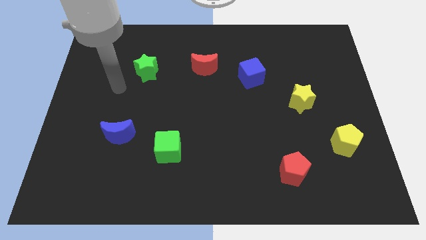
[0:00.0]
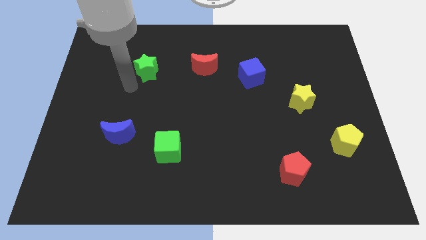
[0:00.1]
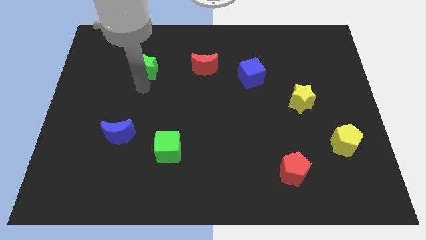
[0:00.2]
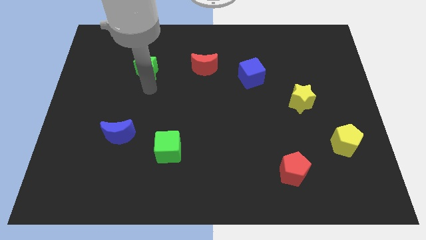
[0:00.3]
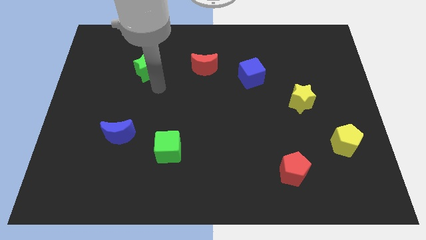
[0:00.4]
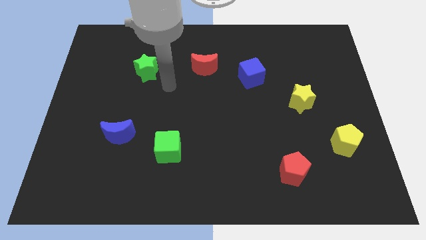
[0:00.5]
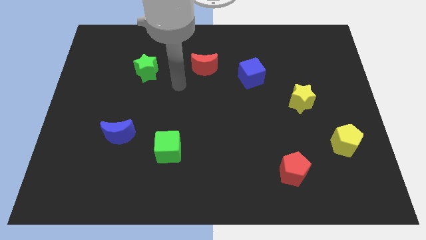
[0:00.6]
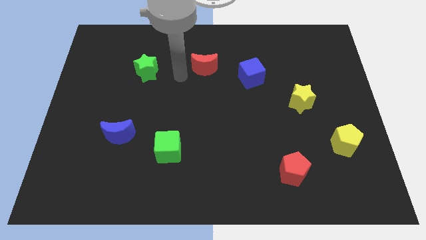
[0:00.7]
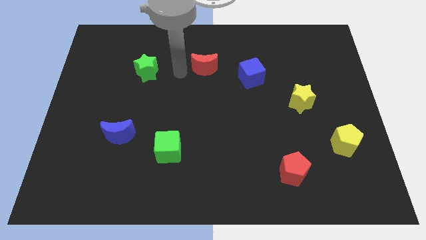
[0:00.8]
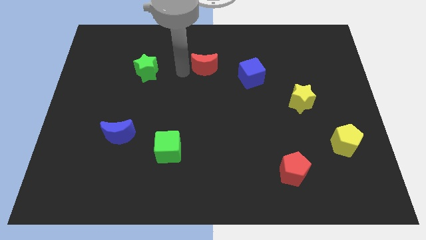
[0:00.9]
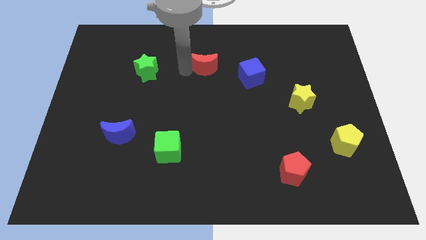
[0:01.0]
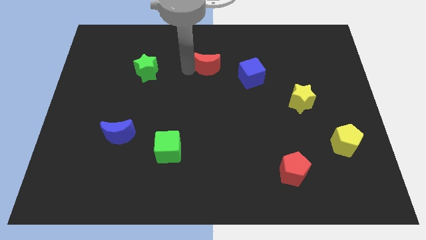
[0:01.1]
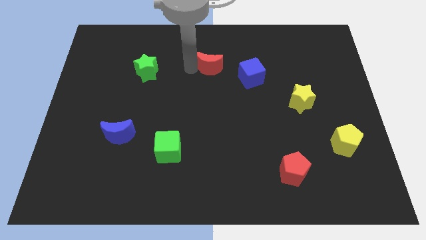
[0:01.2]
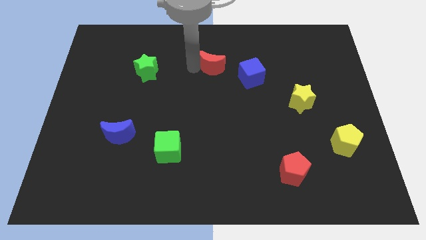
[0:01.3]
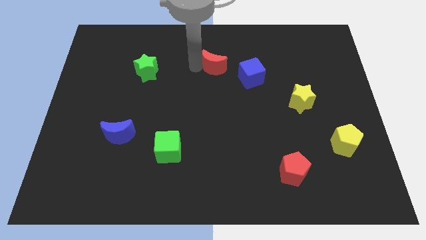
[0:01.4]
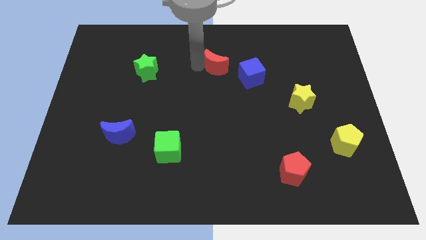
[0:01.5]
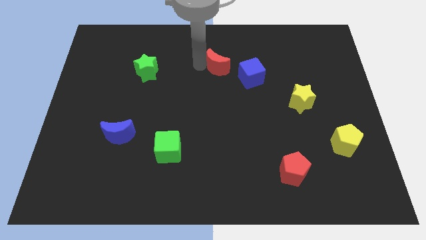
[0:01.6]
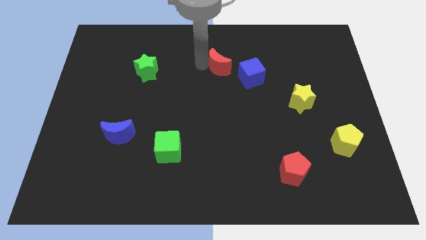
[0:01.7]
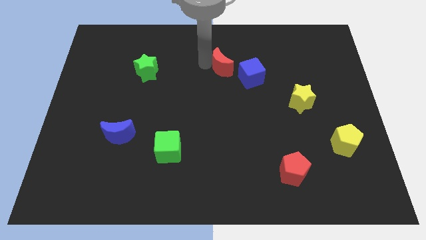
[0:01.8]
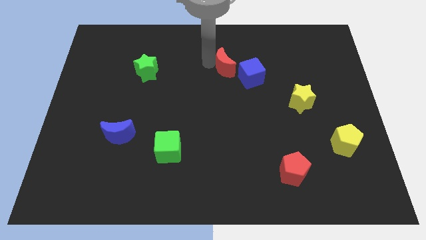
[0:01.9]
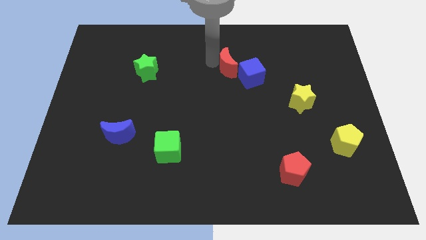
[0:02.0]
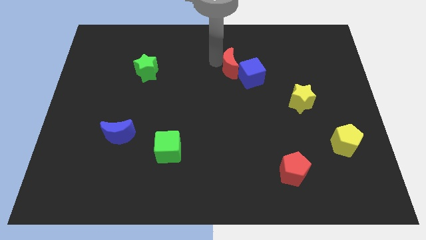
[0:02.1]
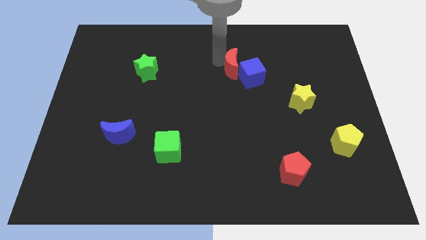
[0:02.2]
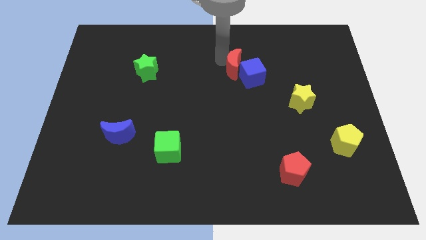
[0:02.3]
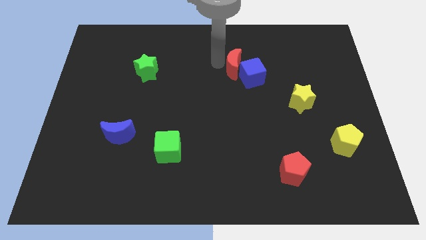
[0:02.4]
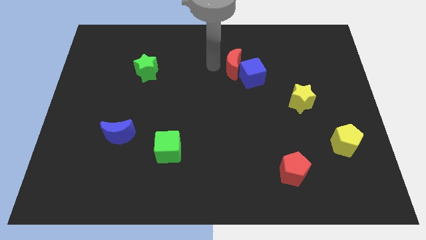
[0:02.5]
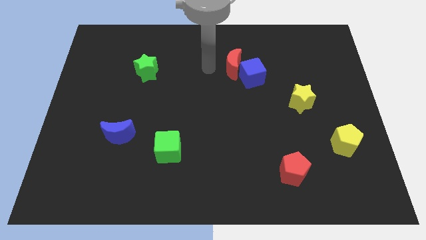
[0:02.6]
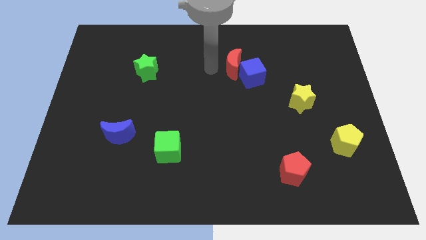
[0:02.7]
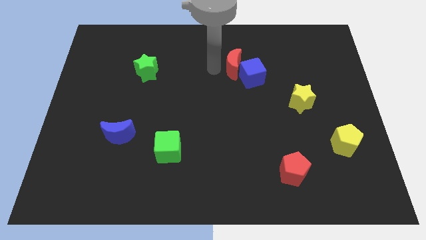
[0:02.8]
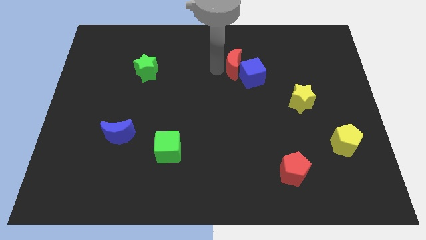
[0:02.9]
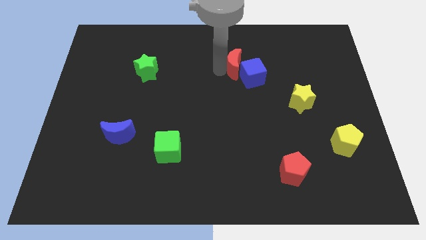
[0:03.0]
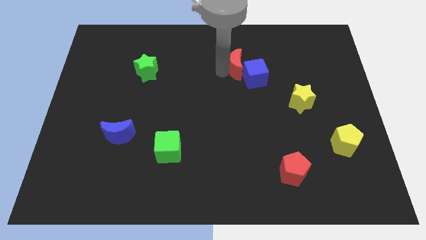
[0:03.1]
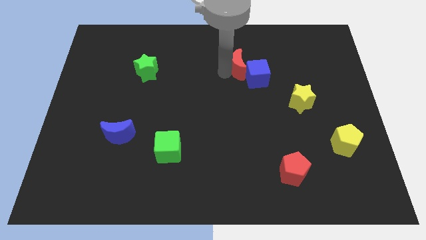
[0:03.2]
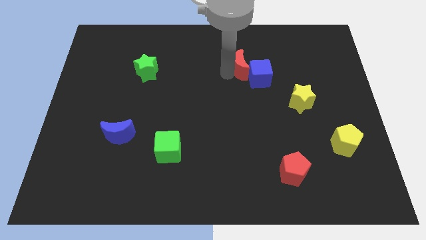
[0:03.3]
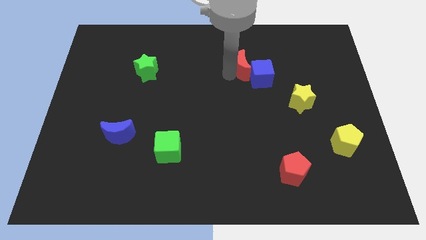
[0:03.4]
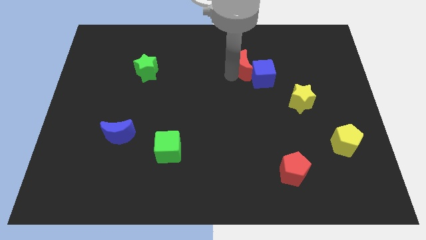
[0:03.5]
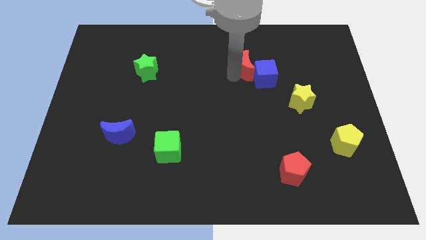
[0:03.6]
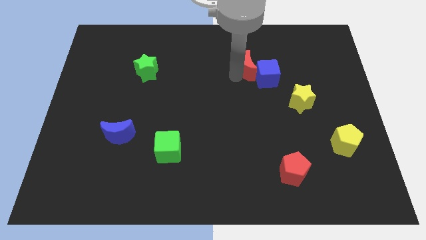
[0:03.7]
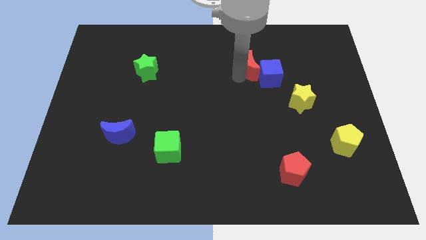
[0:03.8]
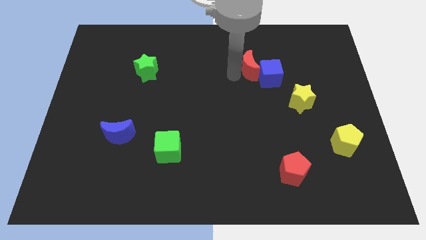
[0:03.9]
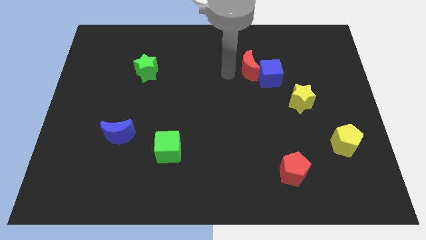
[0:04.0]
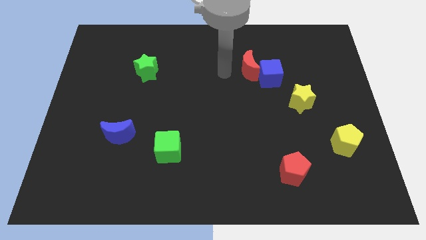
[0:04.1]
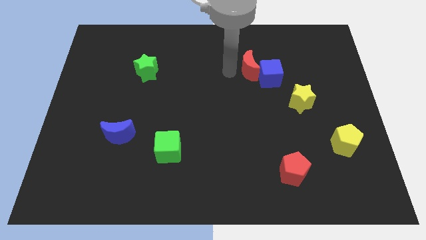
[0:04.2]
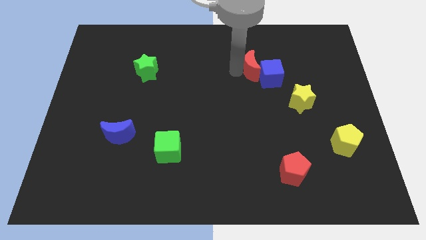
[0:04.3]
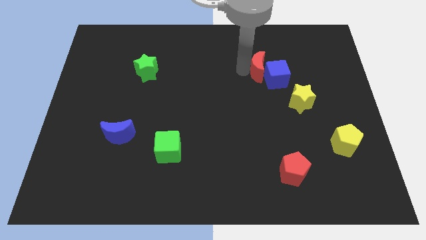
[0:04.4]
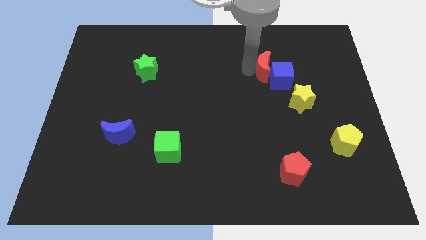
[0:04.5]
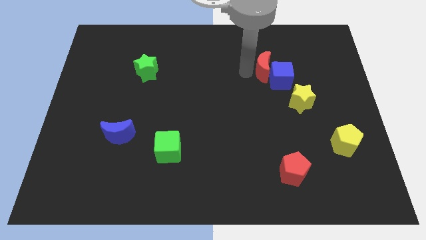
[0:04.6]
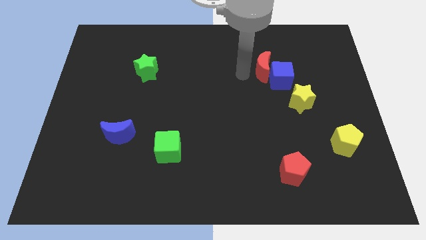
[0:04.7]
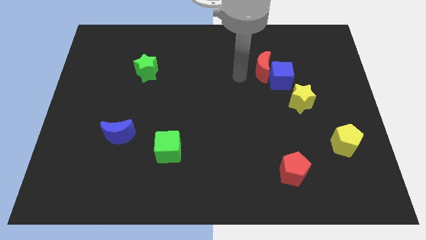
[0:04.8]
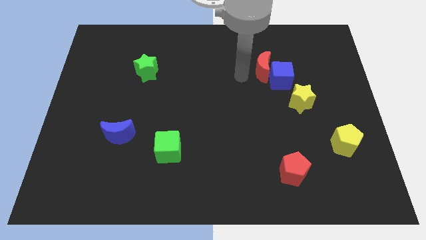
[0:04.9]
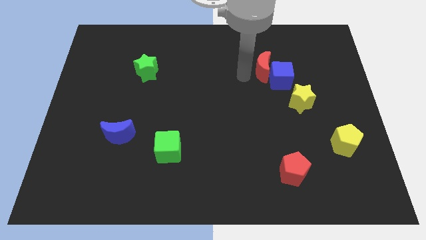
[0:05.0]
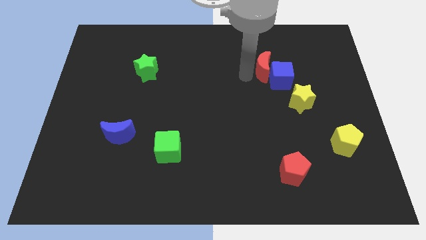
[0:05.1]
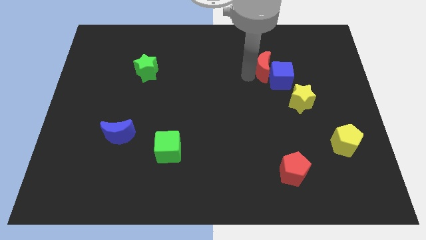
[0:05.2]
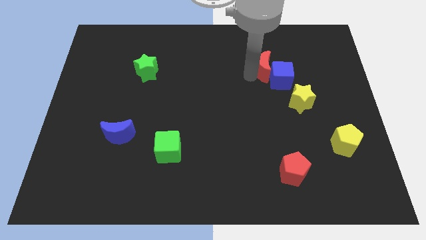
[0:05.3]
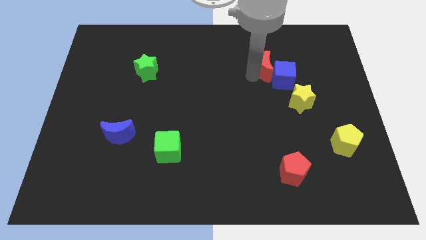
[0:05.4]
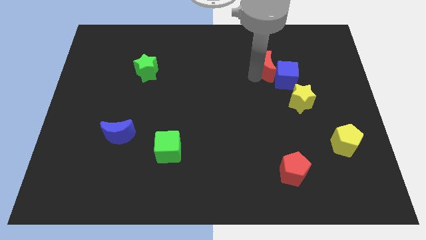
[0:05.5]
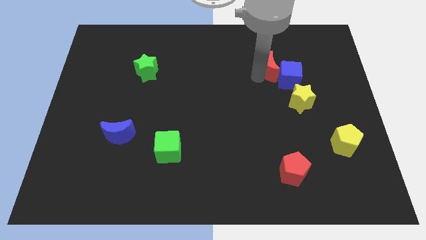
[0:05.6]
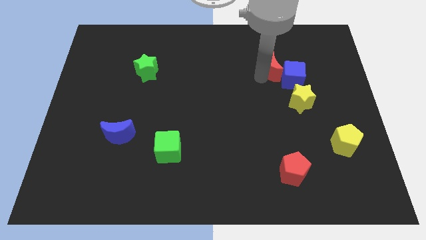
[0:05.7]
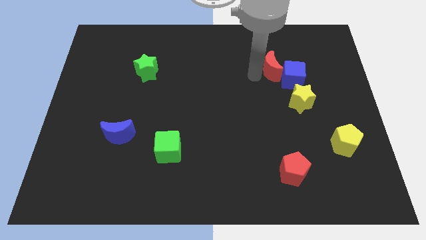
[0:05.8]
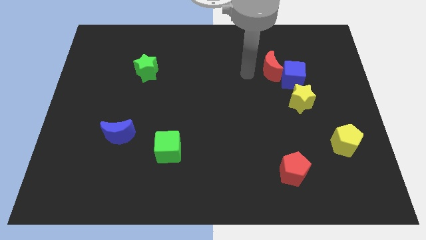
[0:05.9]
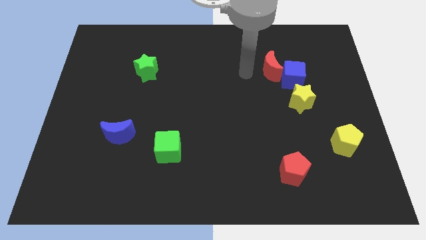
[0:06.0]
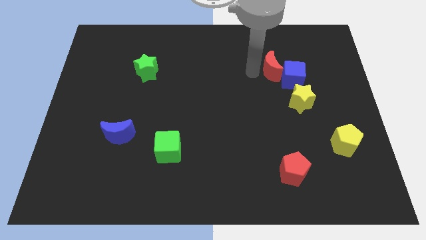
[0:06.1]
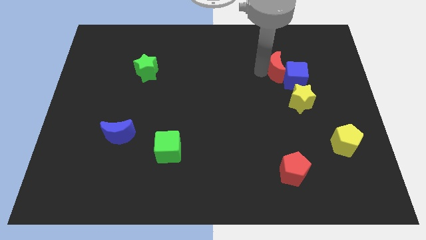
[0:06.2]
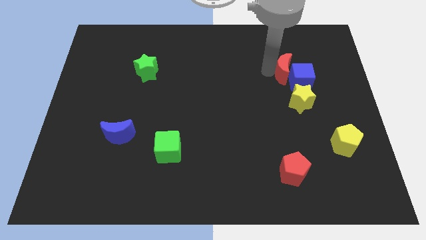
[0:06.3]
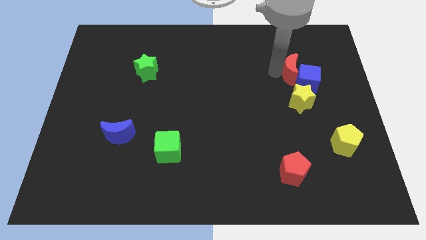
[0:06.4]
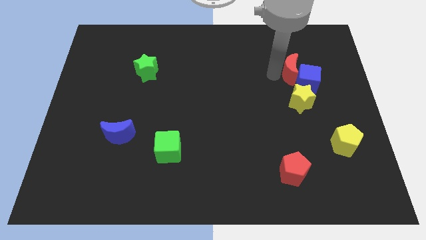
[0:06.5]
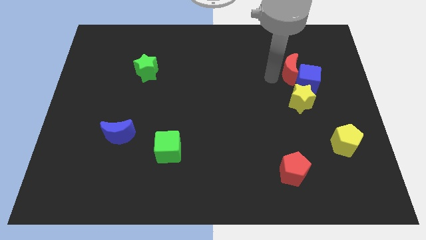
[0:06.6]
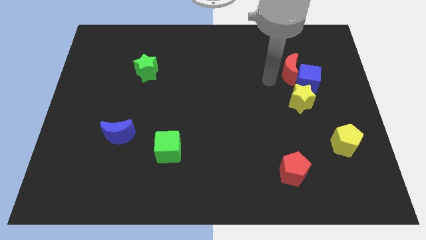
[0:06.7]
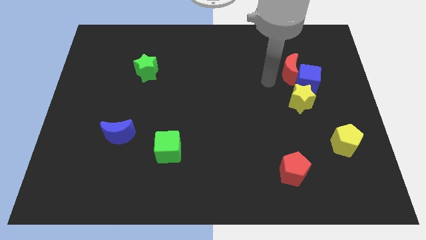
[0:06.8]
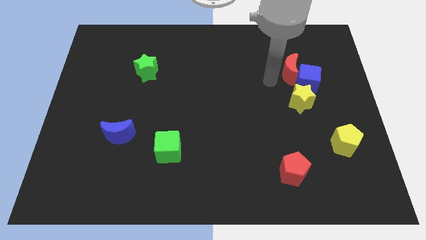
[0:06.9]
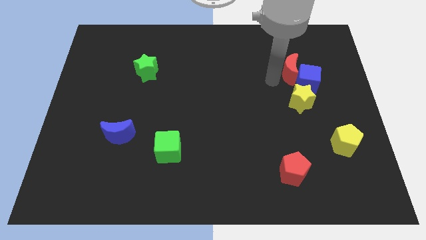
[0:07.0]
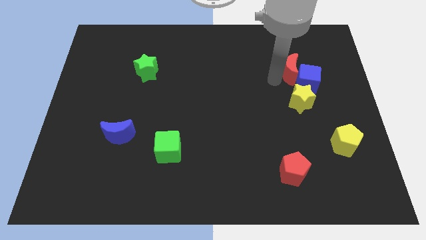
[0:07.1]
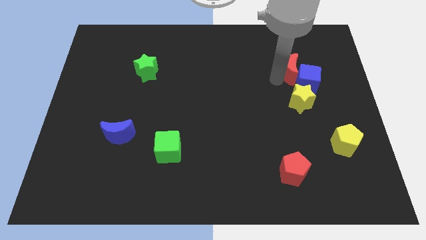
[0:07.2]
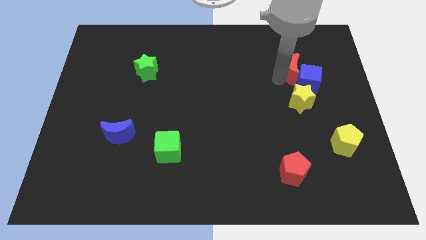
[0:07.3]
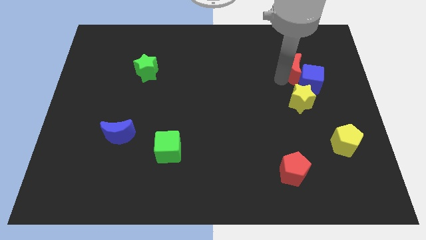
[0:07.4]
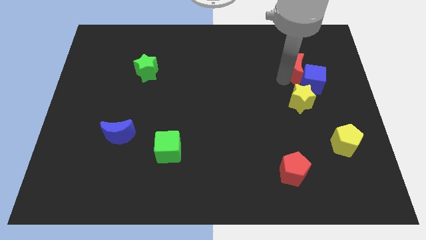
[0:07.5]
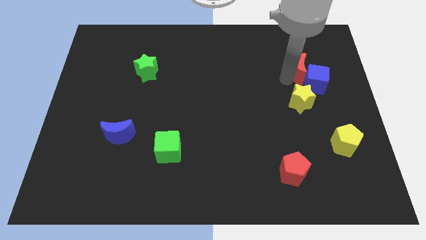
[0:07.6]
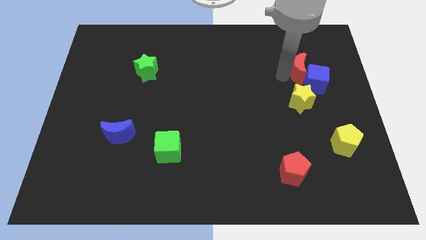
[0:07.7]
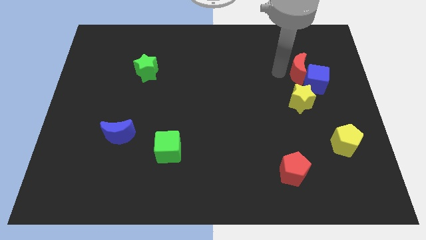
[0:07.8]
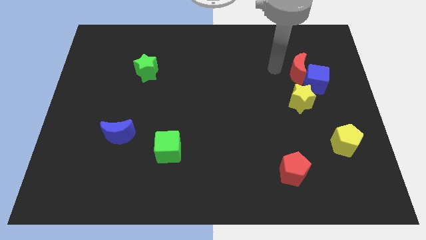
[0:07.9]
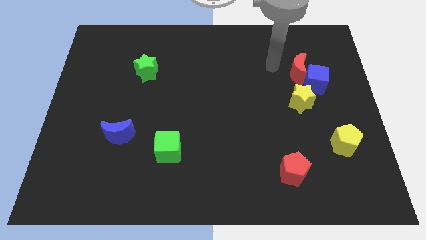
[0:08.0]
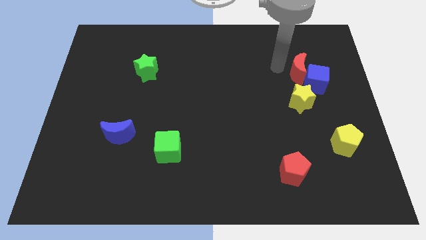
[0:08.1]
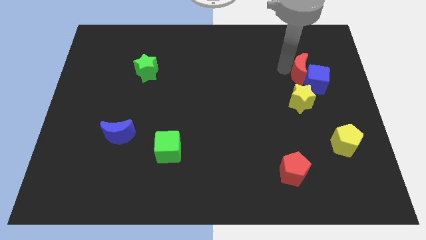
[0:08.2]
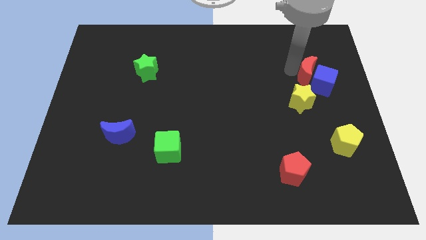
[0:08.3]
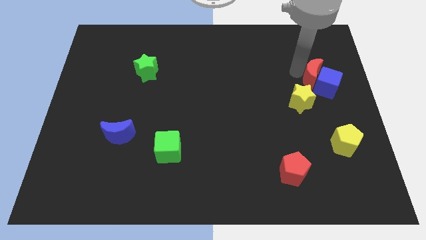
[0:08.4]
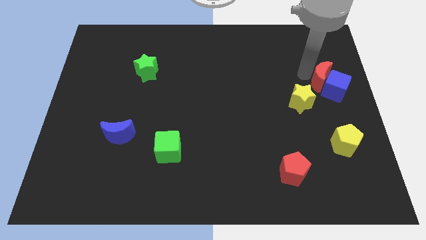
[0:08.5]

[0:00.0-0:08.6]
slide the red moon to the center right
